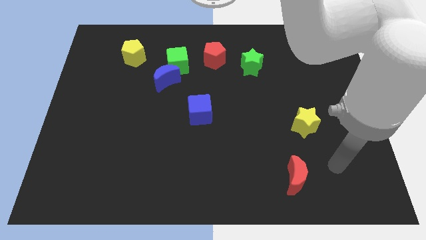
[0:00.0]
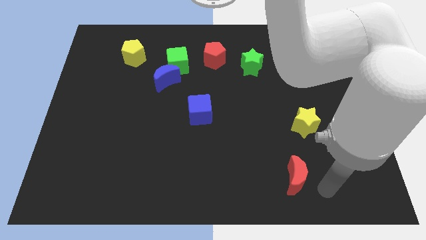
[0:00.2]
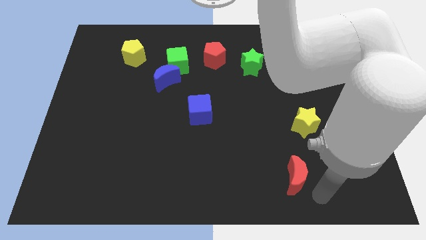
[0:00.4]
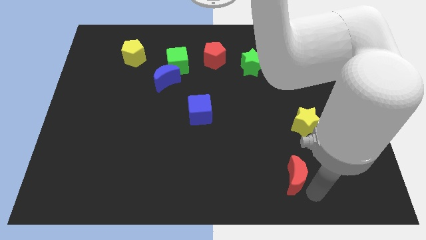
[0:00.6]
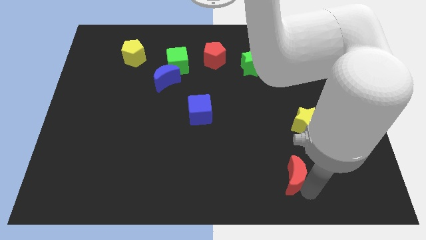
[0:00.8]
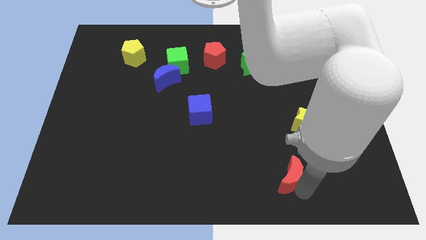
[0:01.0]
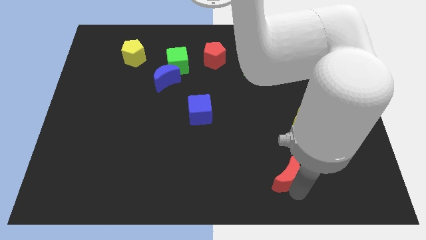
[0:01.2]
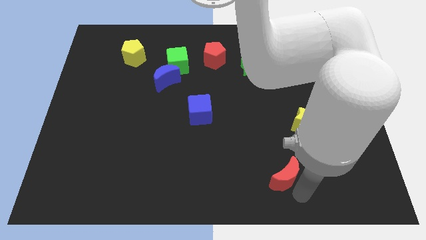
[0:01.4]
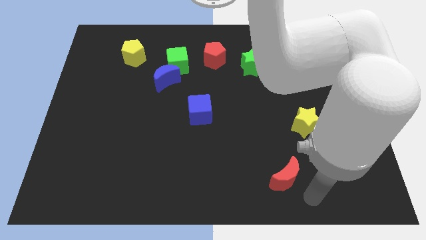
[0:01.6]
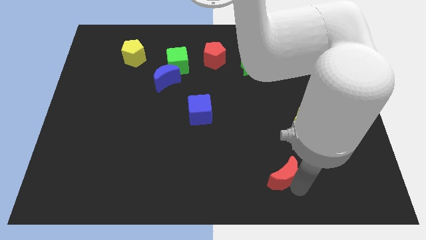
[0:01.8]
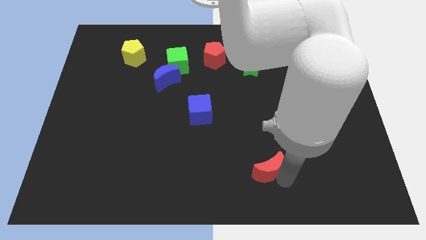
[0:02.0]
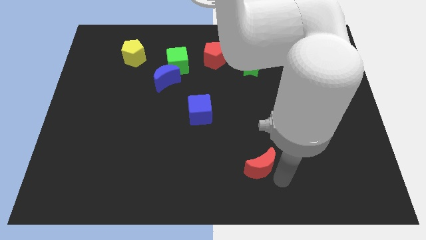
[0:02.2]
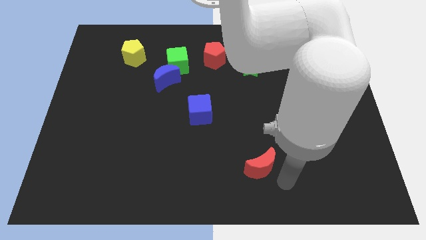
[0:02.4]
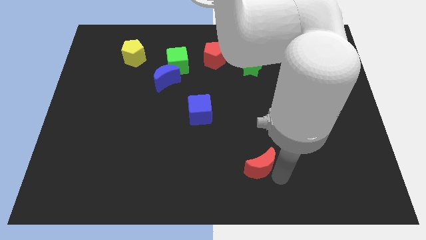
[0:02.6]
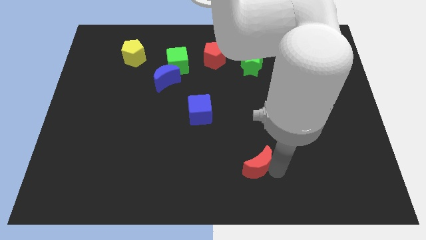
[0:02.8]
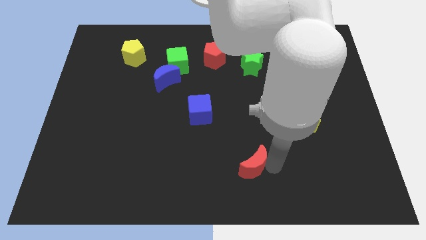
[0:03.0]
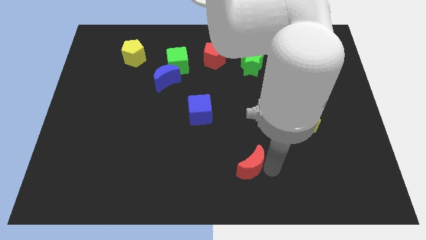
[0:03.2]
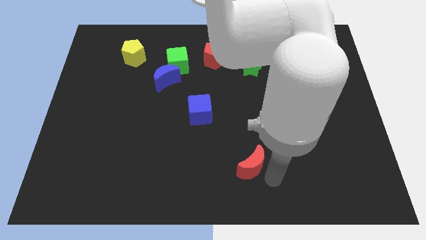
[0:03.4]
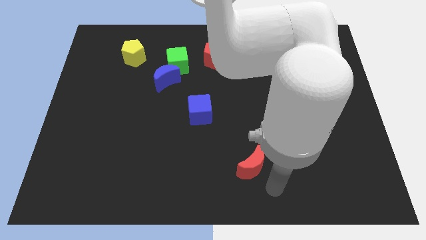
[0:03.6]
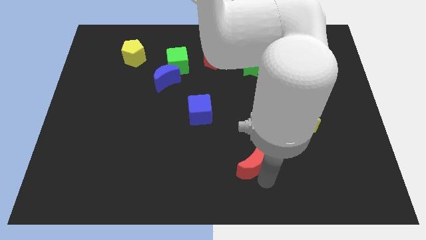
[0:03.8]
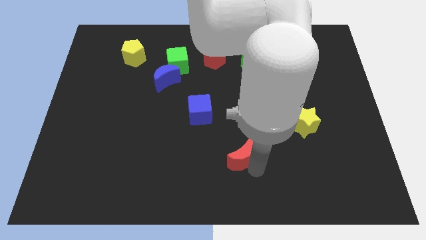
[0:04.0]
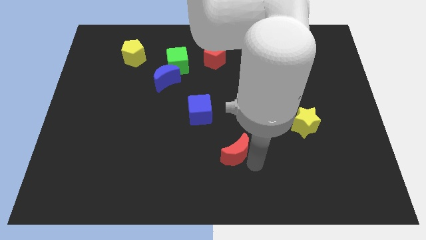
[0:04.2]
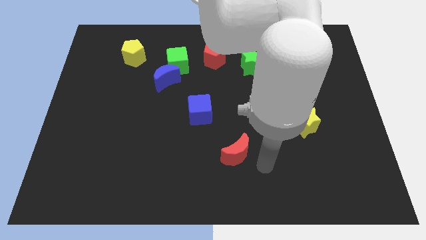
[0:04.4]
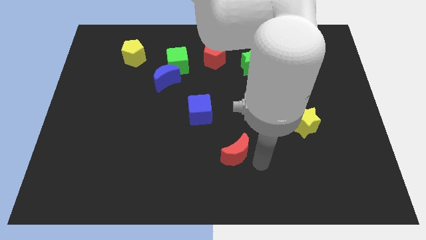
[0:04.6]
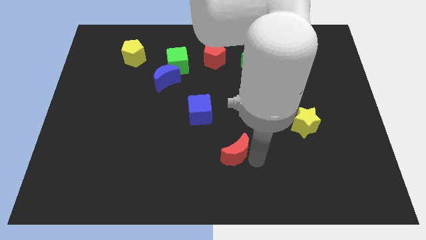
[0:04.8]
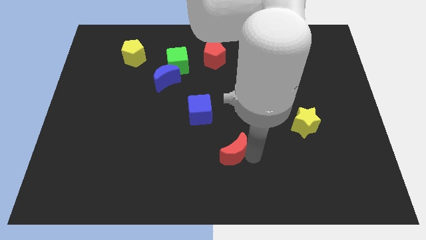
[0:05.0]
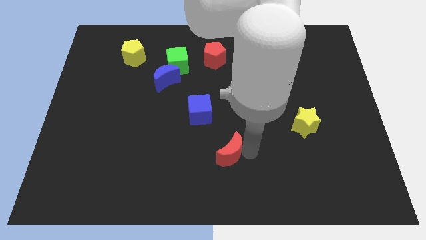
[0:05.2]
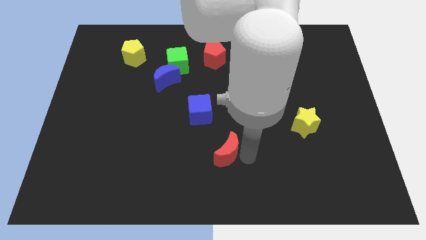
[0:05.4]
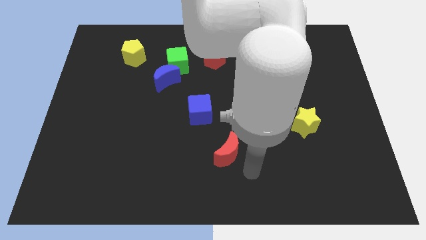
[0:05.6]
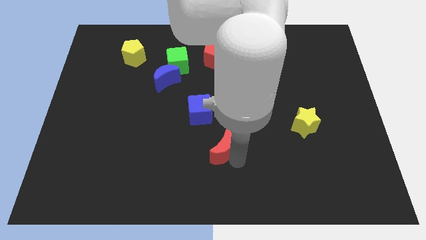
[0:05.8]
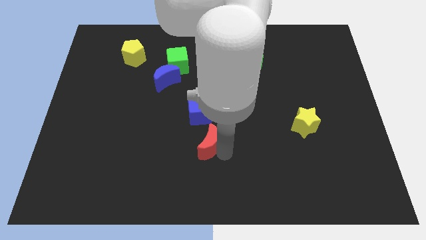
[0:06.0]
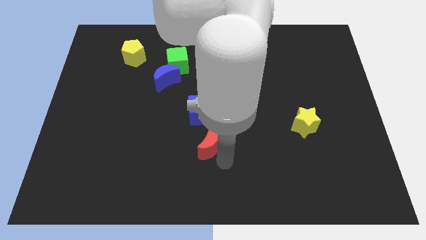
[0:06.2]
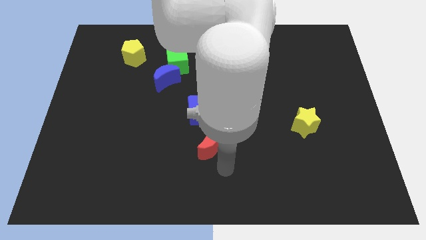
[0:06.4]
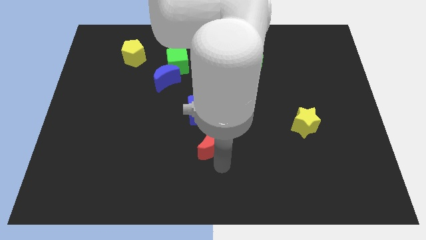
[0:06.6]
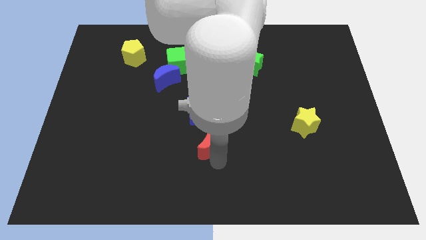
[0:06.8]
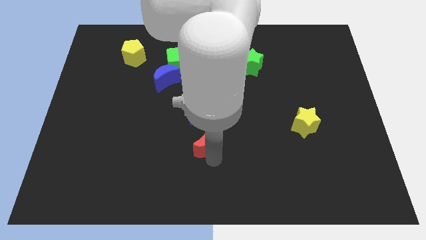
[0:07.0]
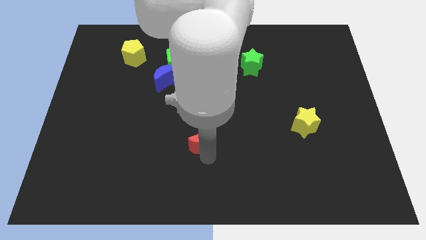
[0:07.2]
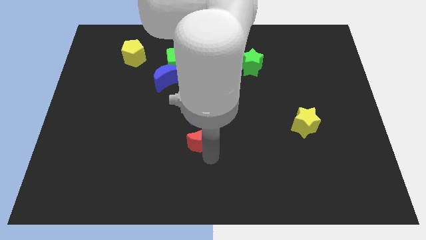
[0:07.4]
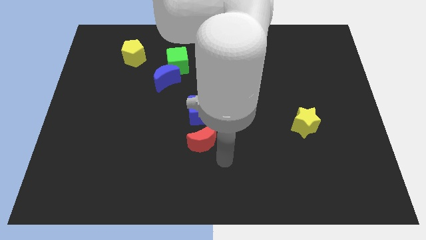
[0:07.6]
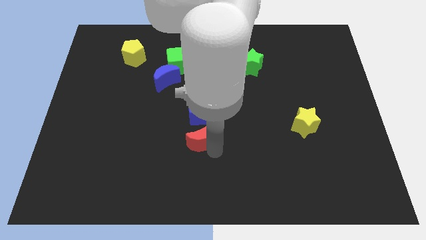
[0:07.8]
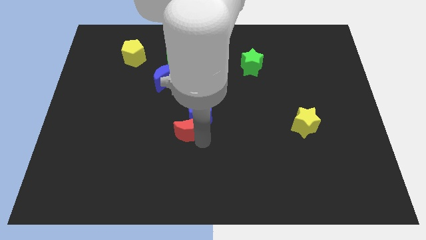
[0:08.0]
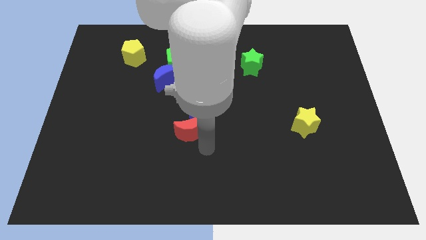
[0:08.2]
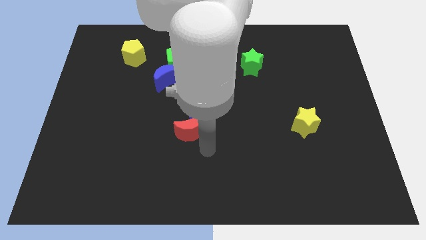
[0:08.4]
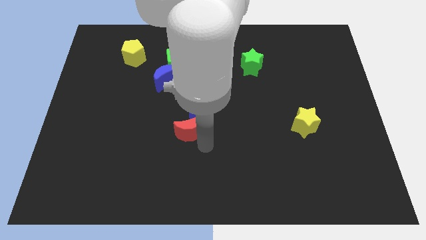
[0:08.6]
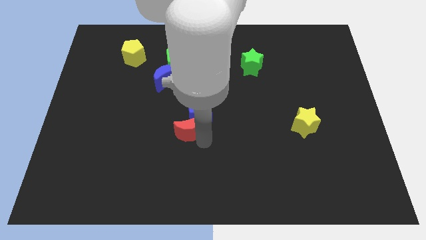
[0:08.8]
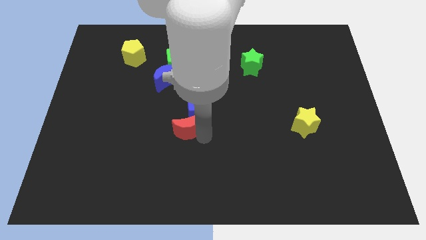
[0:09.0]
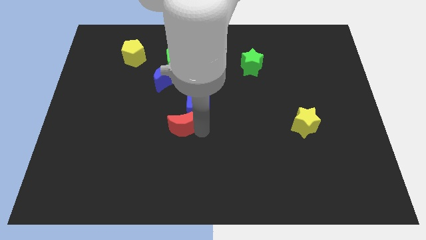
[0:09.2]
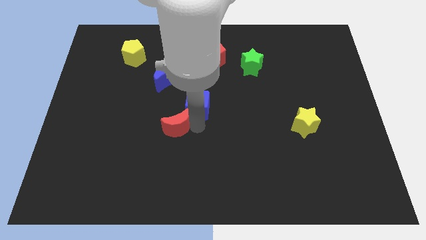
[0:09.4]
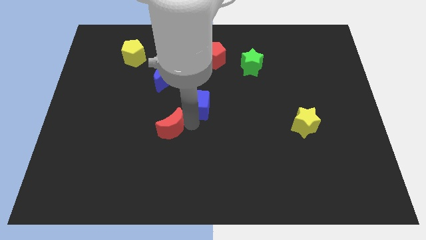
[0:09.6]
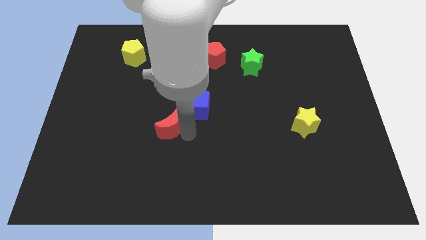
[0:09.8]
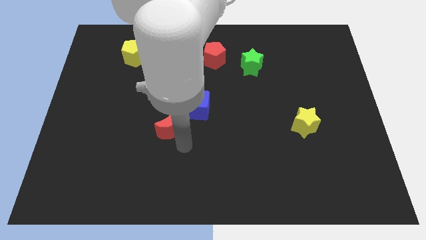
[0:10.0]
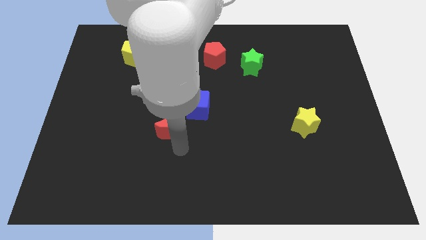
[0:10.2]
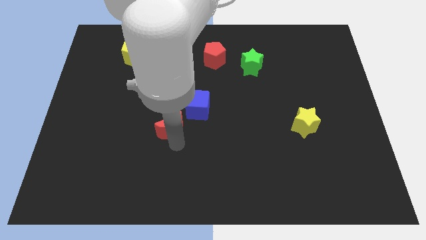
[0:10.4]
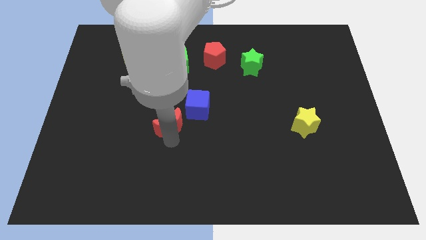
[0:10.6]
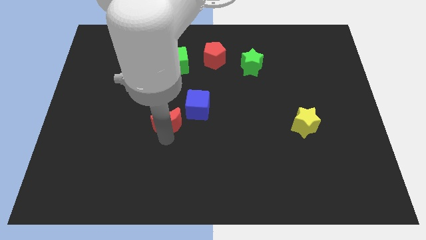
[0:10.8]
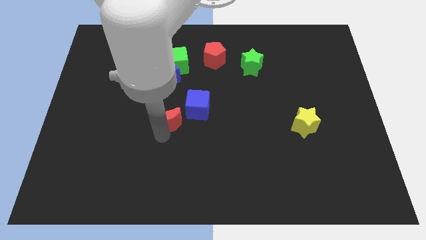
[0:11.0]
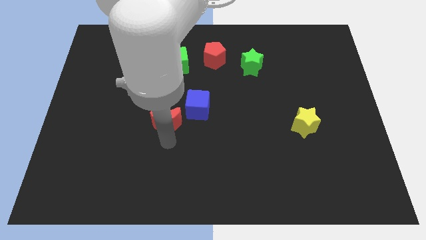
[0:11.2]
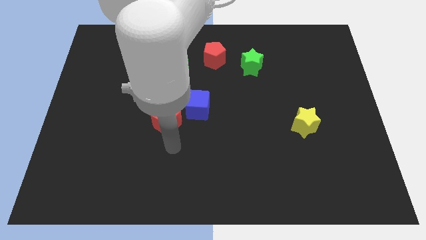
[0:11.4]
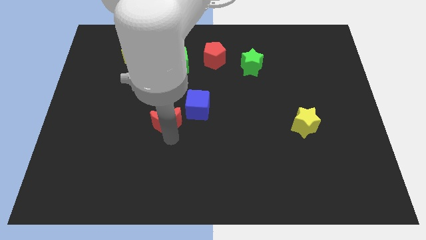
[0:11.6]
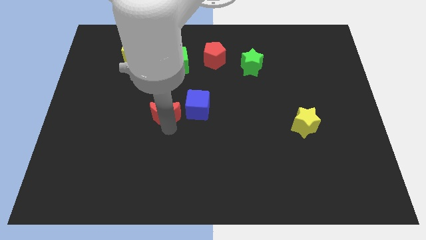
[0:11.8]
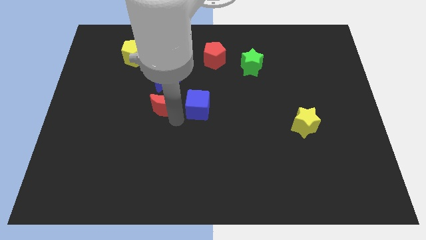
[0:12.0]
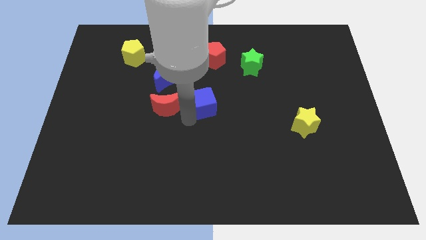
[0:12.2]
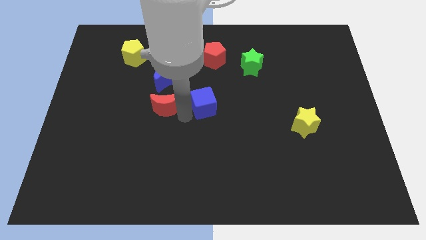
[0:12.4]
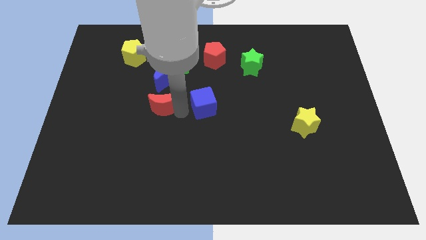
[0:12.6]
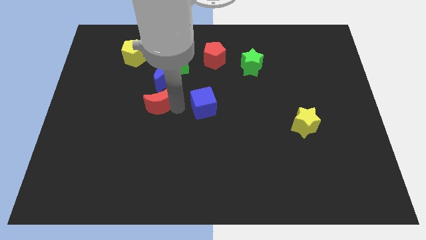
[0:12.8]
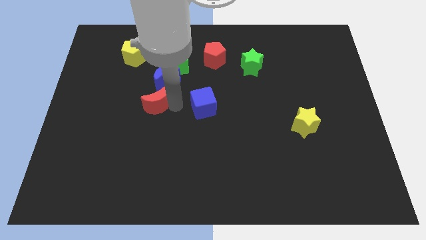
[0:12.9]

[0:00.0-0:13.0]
push the red moon diagonally down and to the left of the blue moon
